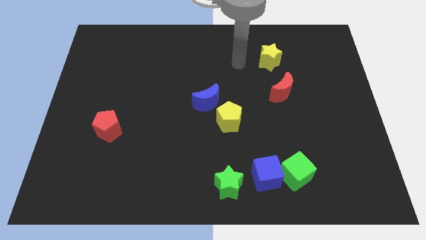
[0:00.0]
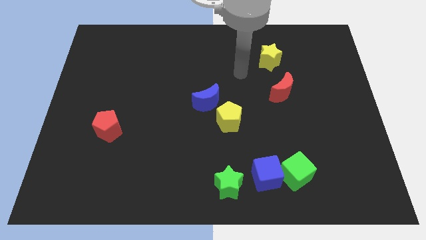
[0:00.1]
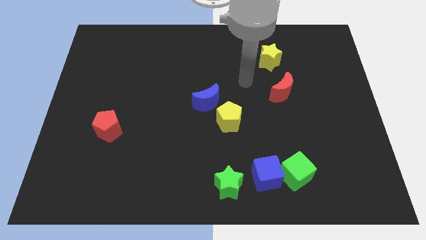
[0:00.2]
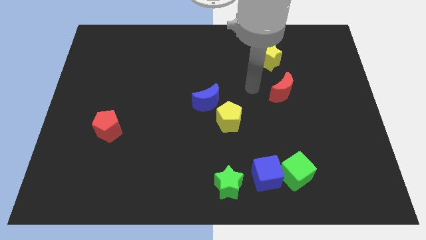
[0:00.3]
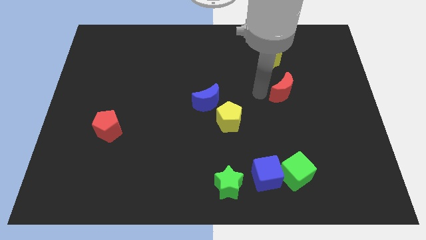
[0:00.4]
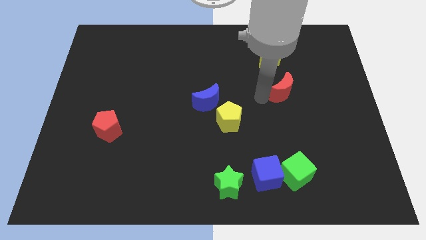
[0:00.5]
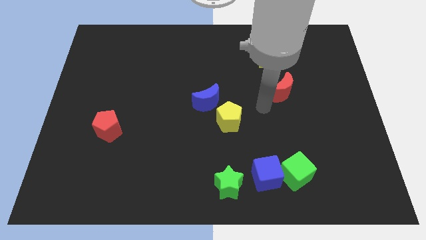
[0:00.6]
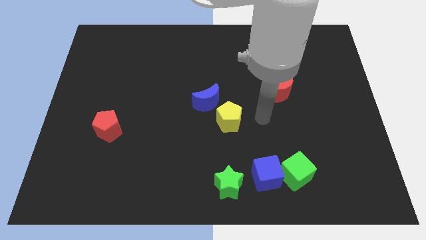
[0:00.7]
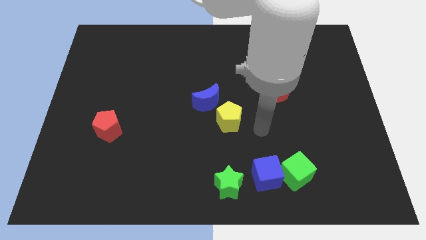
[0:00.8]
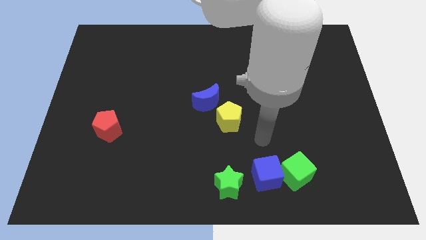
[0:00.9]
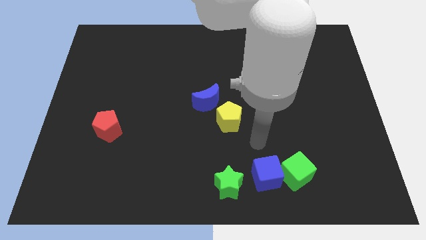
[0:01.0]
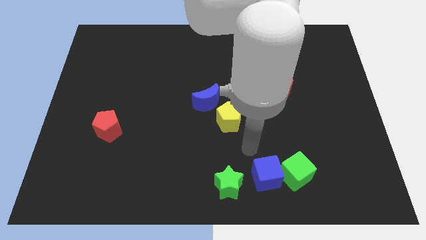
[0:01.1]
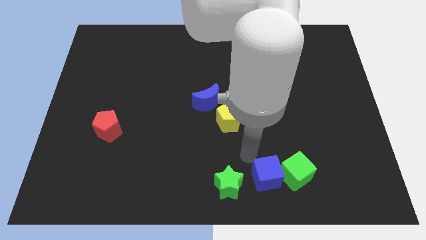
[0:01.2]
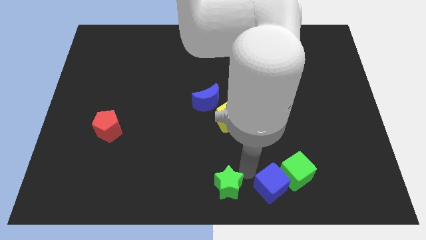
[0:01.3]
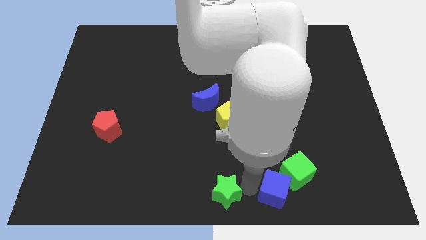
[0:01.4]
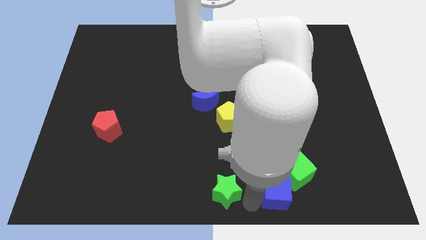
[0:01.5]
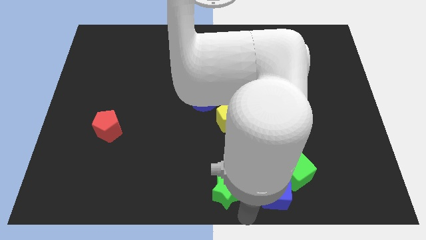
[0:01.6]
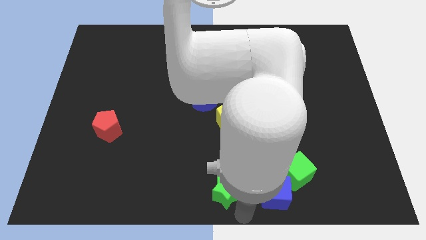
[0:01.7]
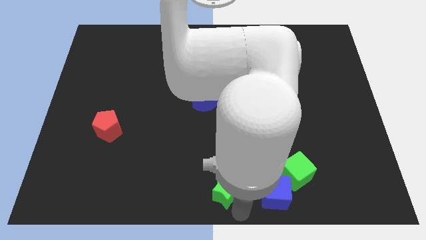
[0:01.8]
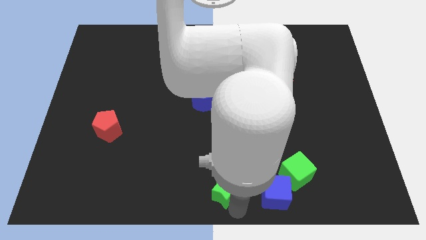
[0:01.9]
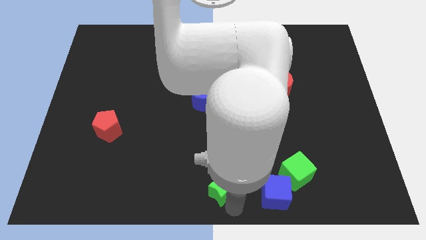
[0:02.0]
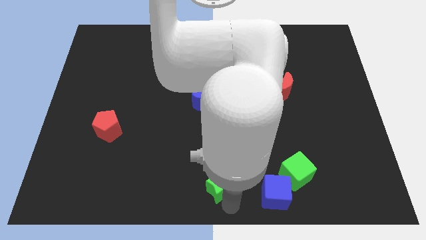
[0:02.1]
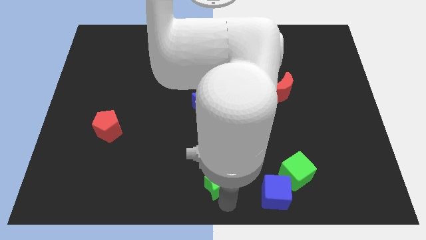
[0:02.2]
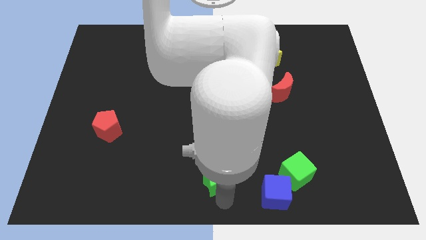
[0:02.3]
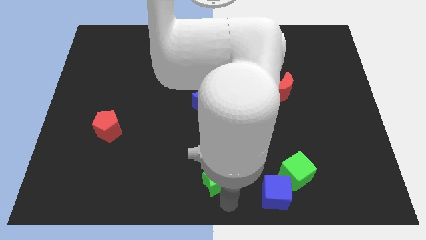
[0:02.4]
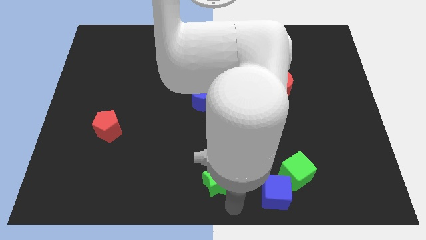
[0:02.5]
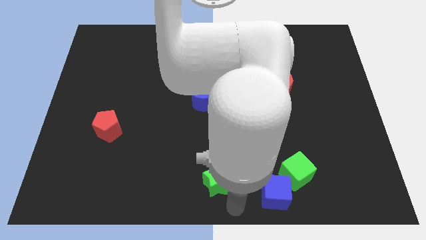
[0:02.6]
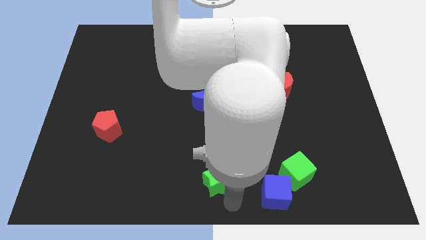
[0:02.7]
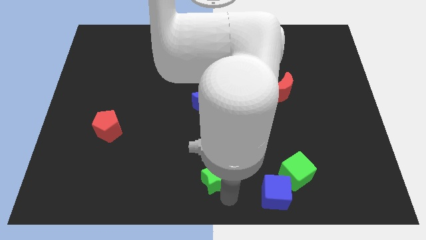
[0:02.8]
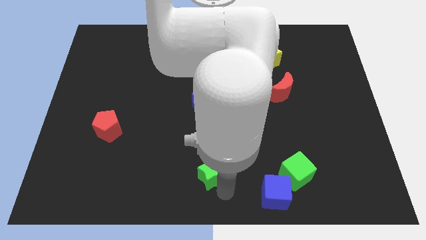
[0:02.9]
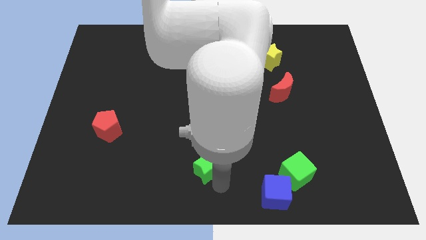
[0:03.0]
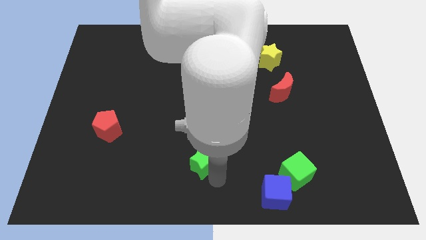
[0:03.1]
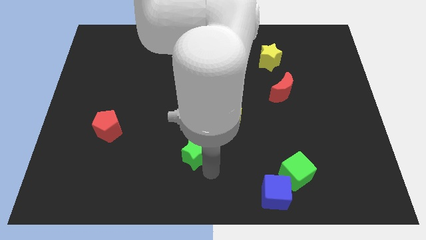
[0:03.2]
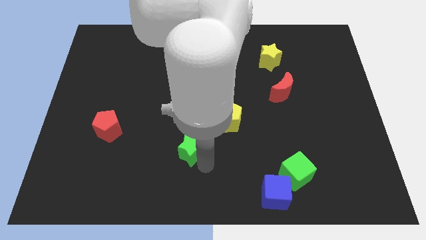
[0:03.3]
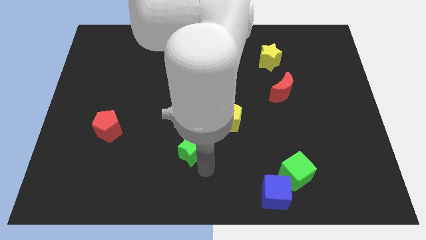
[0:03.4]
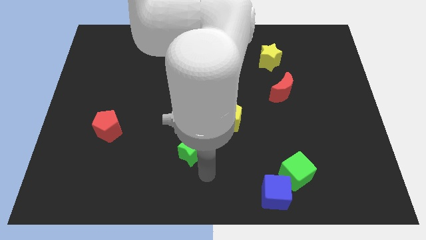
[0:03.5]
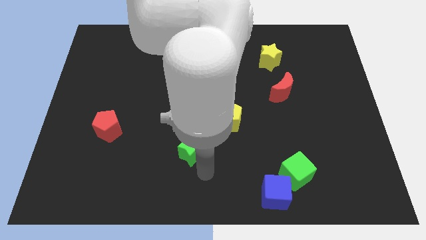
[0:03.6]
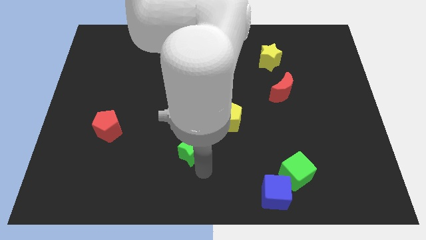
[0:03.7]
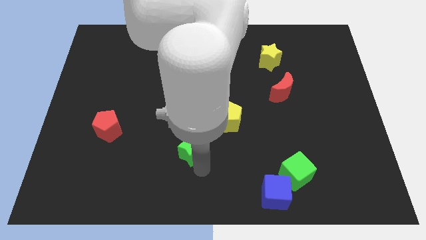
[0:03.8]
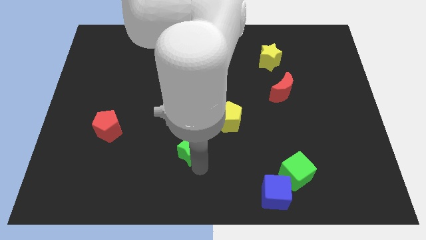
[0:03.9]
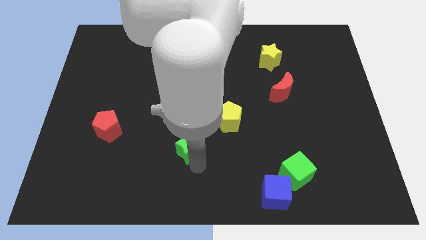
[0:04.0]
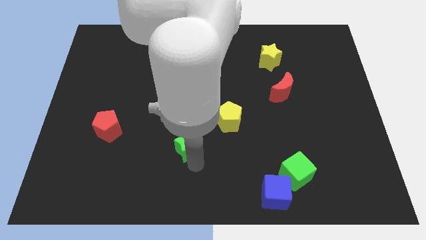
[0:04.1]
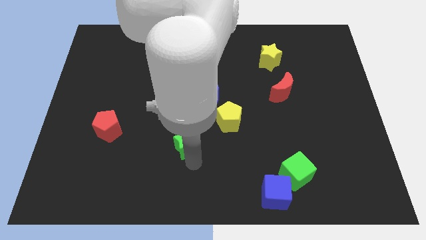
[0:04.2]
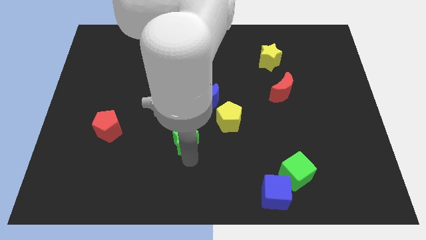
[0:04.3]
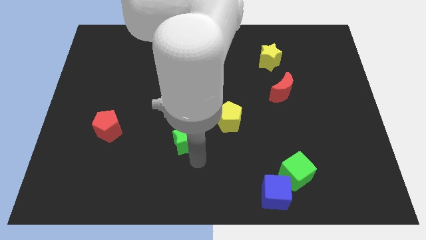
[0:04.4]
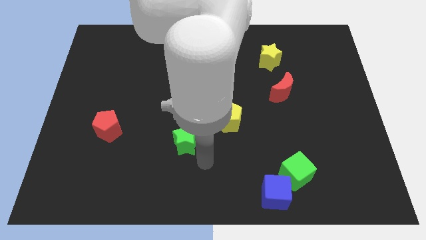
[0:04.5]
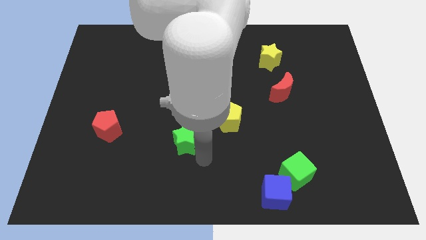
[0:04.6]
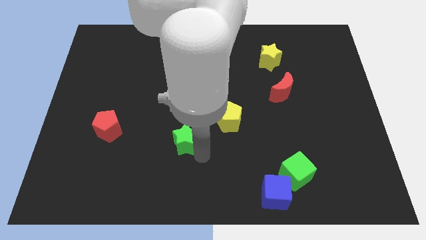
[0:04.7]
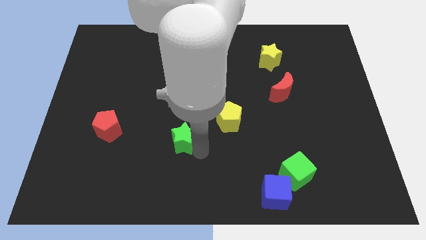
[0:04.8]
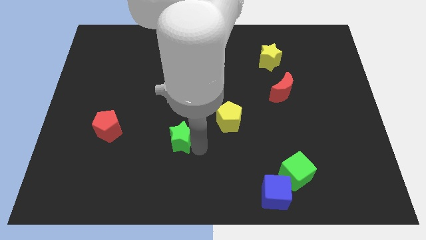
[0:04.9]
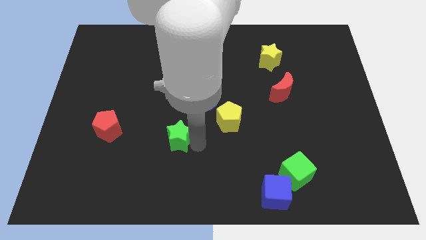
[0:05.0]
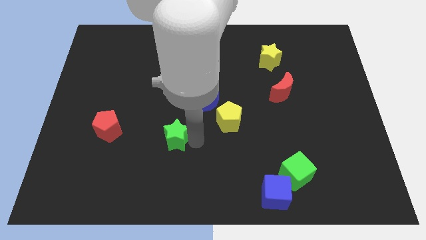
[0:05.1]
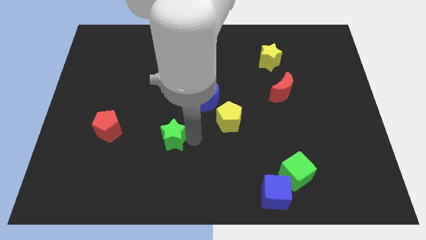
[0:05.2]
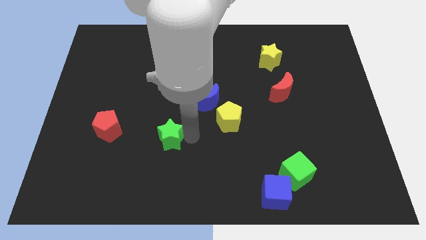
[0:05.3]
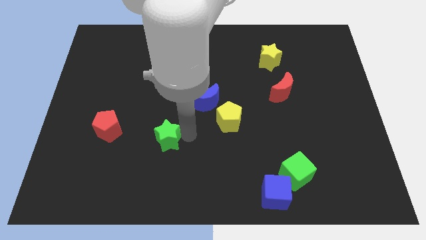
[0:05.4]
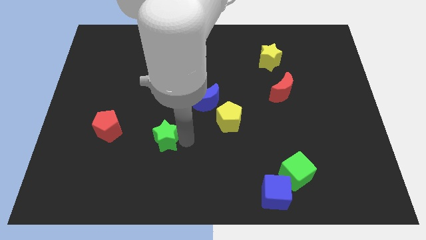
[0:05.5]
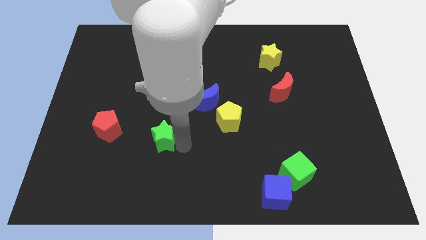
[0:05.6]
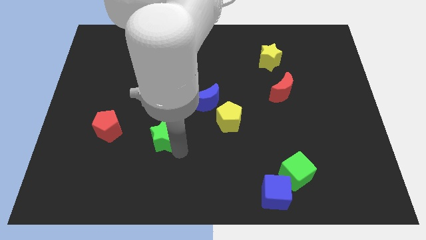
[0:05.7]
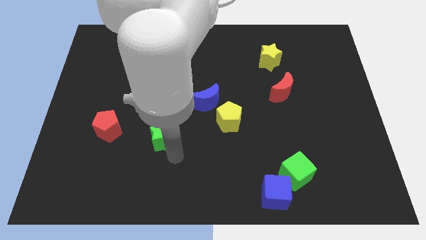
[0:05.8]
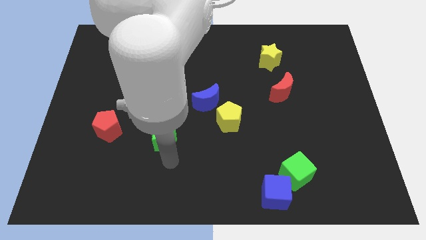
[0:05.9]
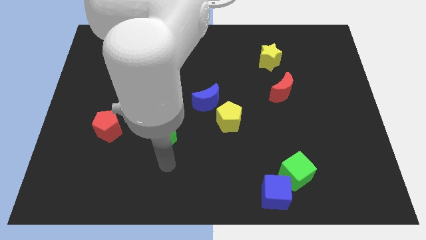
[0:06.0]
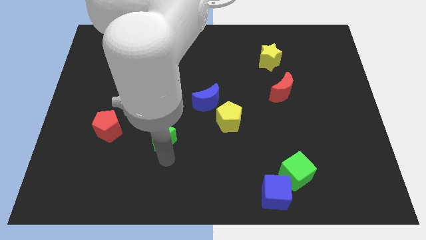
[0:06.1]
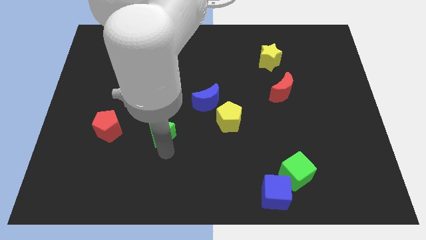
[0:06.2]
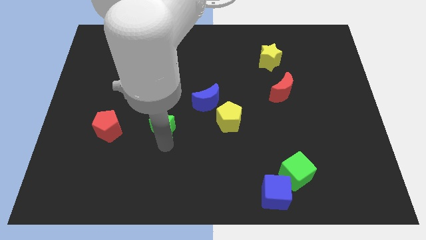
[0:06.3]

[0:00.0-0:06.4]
move the green star upwards and then left

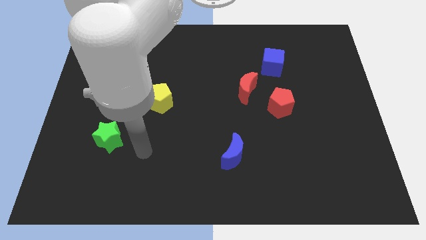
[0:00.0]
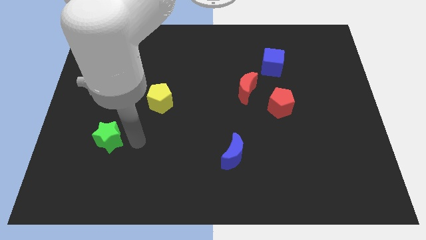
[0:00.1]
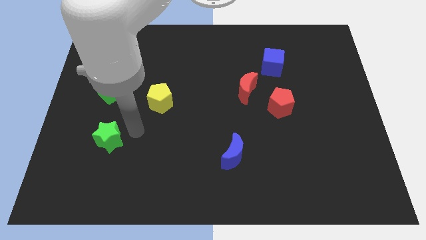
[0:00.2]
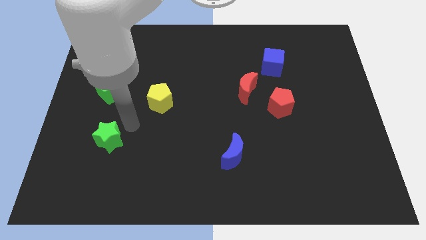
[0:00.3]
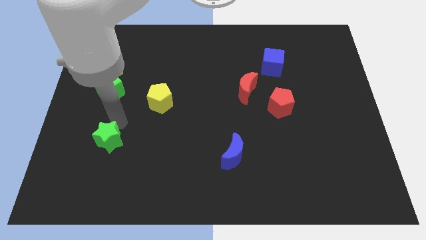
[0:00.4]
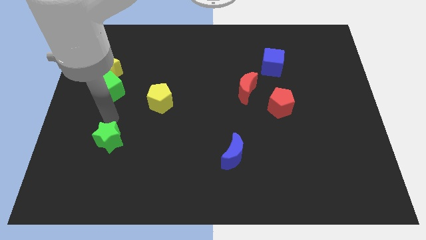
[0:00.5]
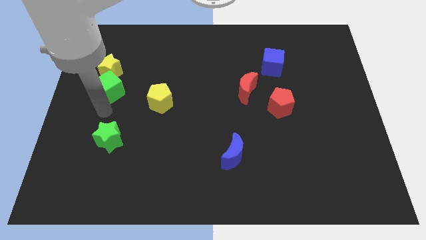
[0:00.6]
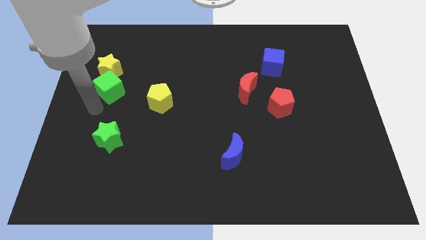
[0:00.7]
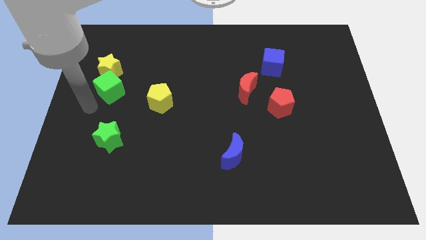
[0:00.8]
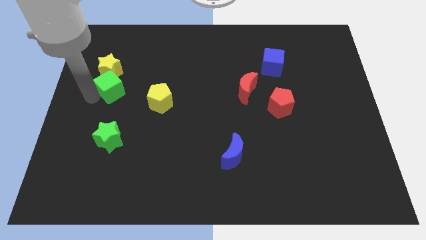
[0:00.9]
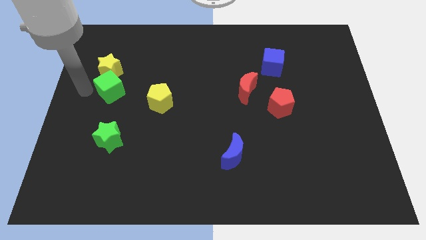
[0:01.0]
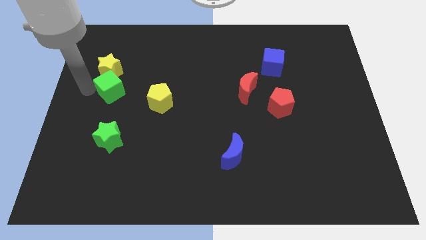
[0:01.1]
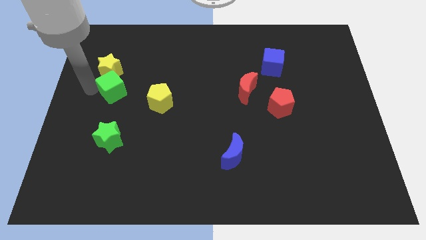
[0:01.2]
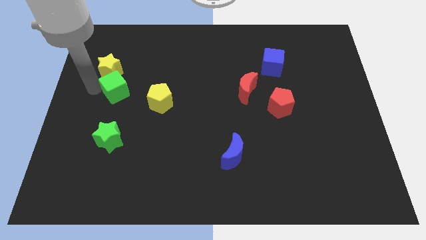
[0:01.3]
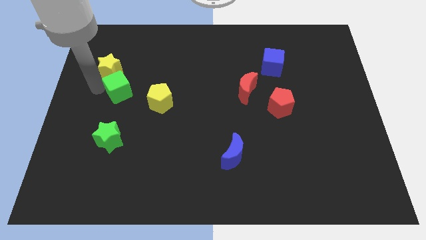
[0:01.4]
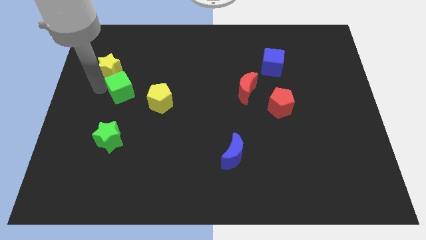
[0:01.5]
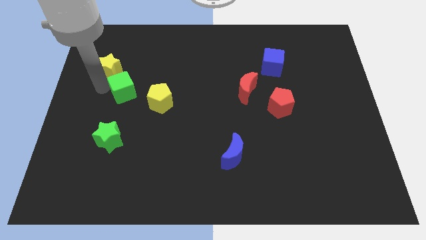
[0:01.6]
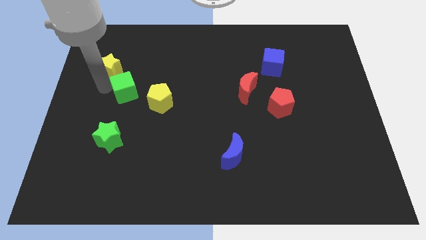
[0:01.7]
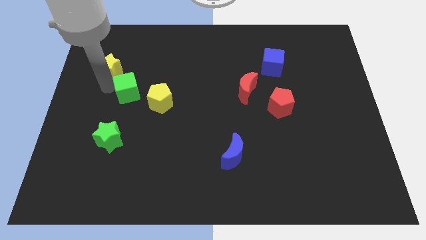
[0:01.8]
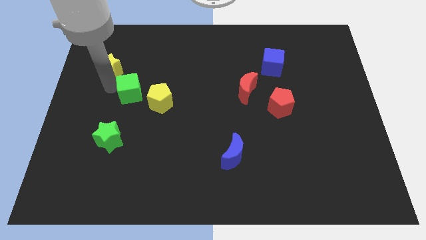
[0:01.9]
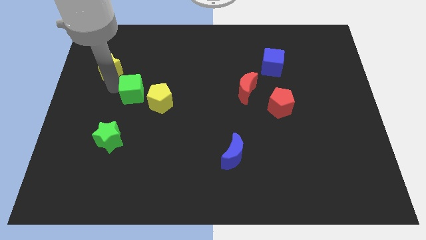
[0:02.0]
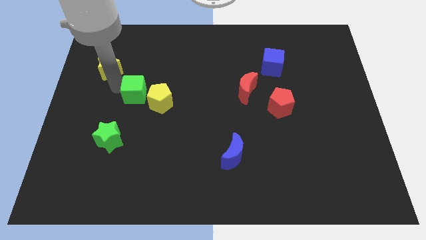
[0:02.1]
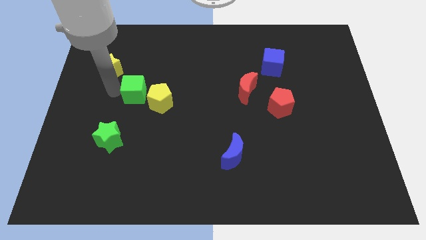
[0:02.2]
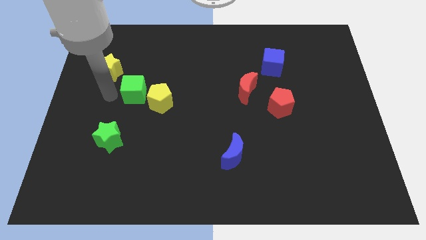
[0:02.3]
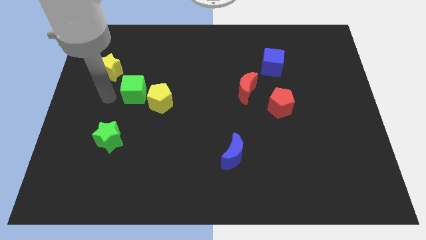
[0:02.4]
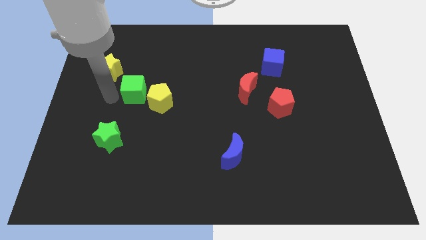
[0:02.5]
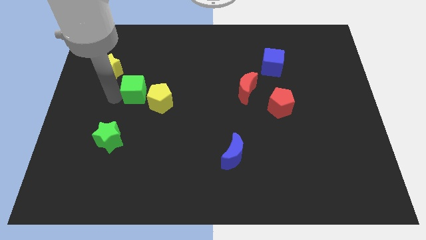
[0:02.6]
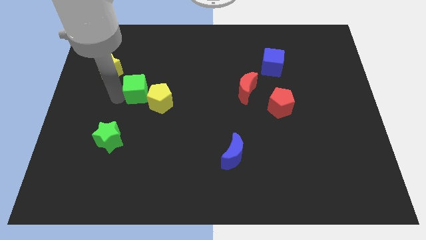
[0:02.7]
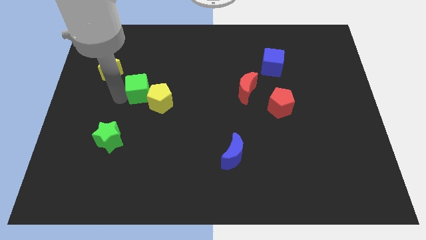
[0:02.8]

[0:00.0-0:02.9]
push the green cube right somewhat
